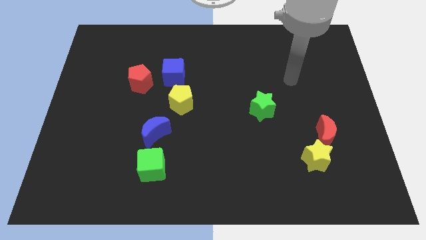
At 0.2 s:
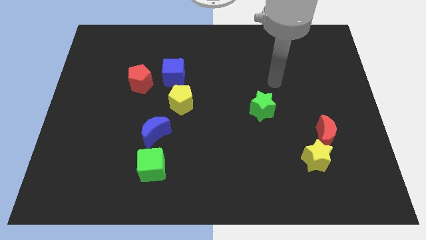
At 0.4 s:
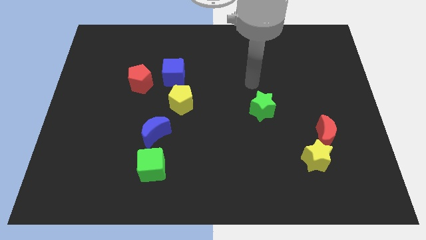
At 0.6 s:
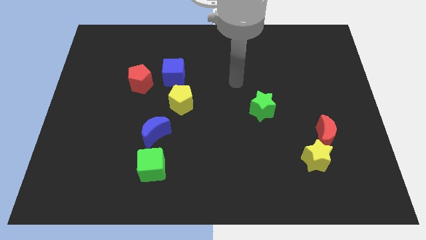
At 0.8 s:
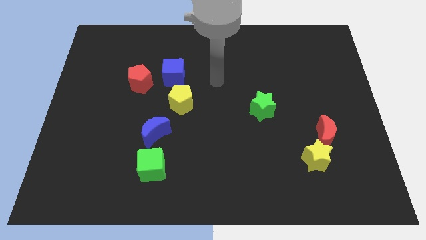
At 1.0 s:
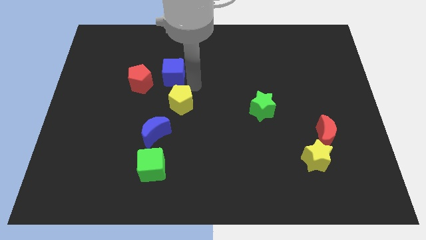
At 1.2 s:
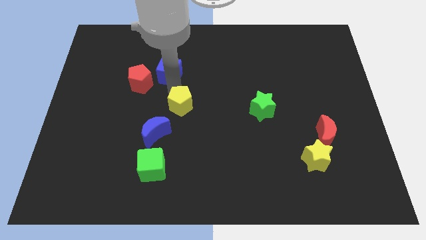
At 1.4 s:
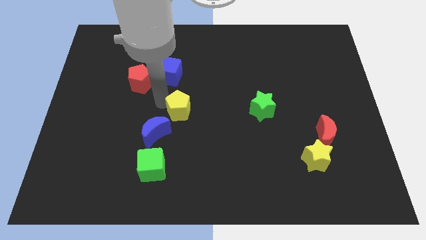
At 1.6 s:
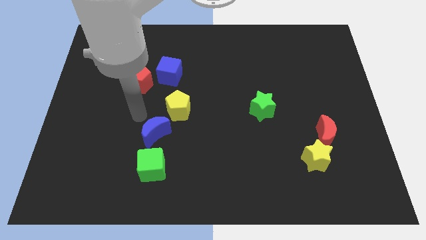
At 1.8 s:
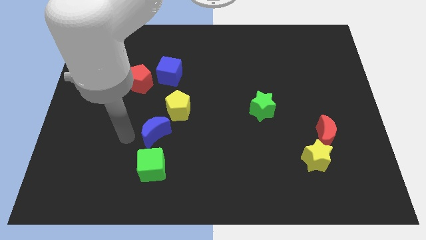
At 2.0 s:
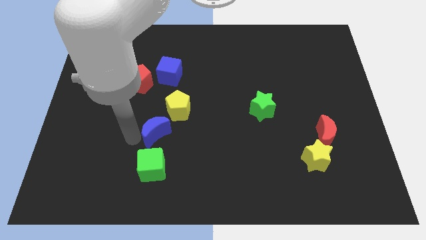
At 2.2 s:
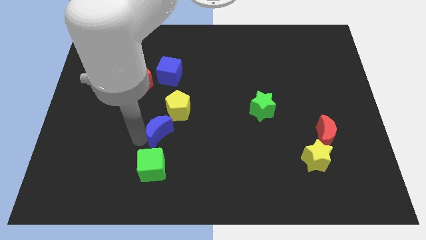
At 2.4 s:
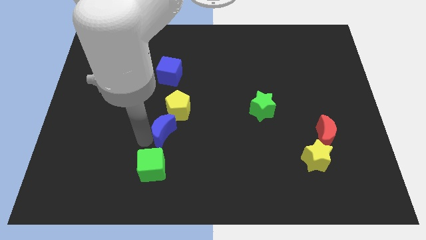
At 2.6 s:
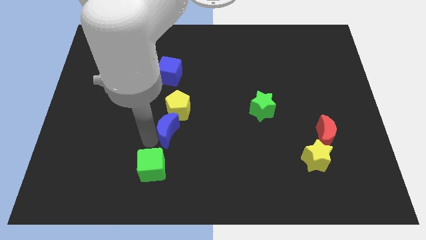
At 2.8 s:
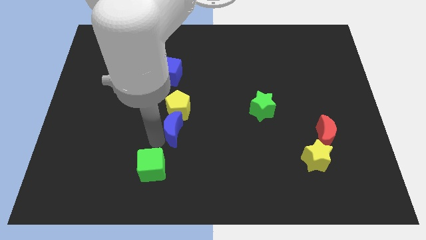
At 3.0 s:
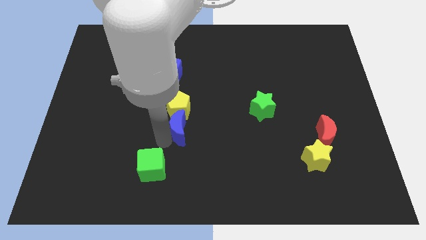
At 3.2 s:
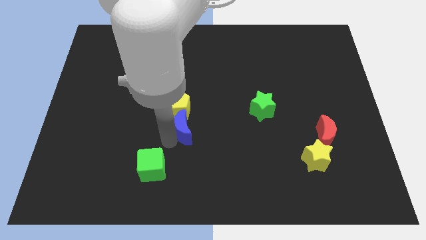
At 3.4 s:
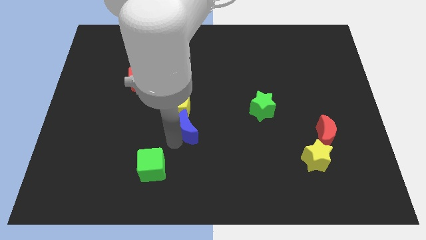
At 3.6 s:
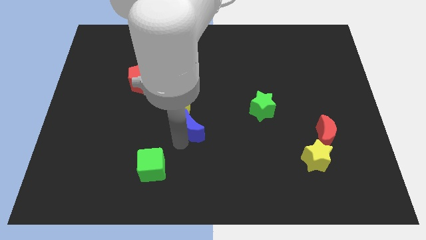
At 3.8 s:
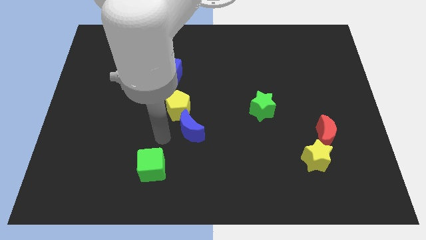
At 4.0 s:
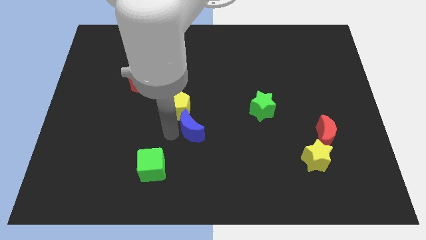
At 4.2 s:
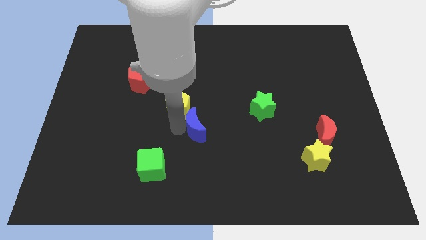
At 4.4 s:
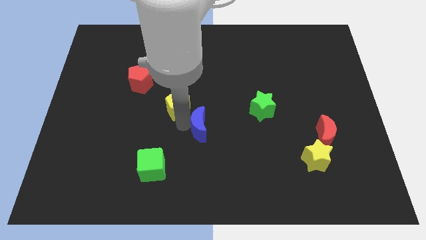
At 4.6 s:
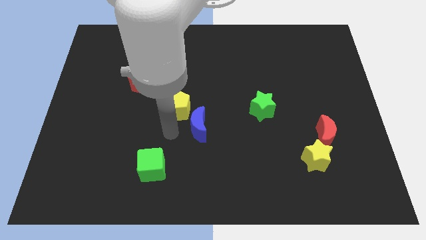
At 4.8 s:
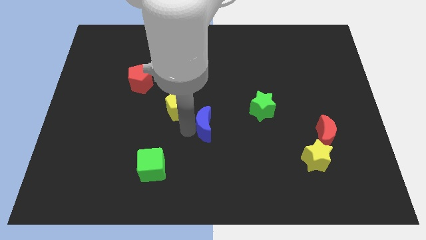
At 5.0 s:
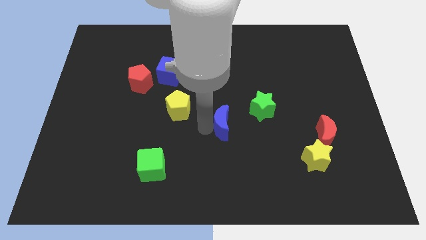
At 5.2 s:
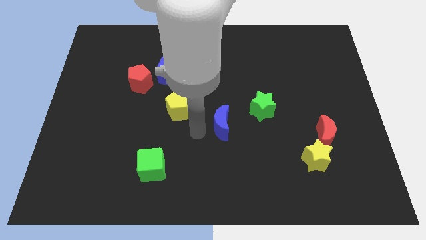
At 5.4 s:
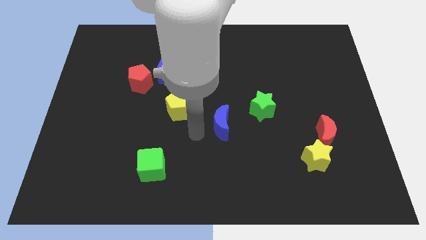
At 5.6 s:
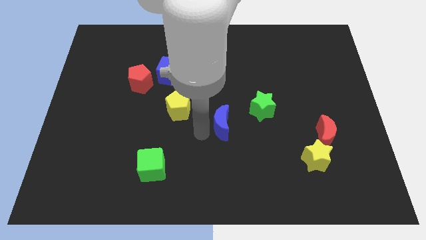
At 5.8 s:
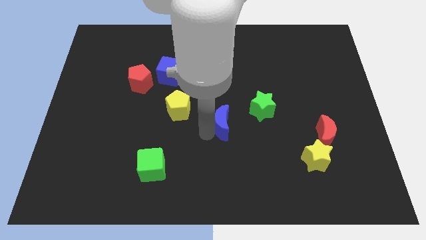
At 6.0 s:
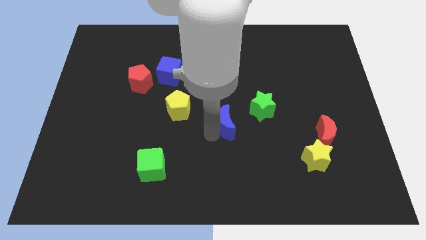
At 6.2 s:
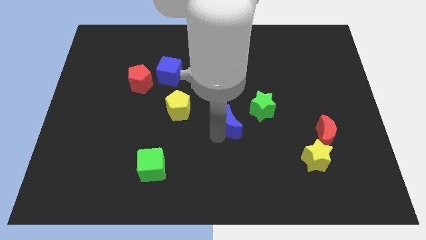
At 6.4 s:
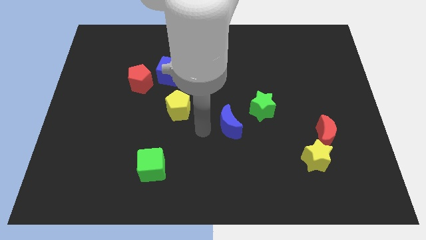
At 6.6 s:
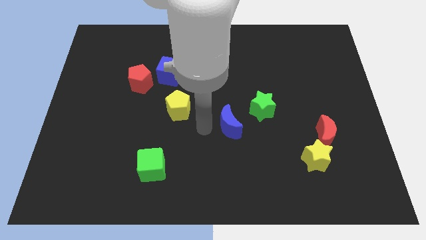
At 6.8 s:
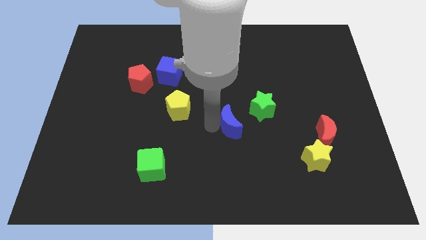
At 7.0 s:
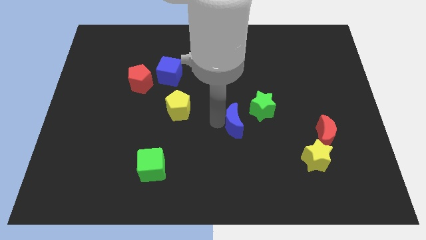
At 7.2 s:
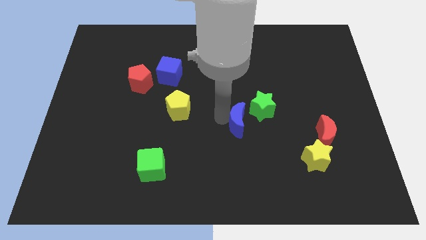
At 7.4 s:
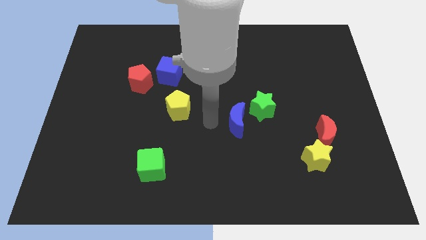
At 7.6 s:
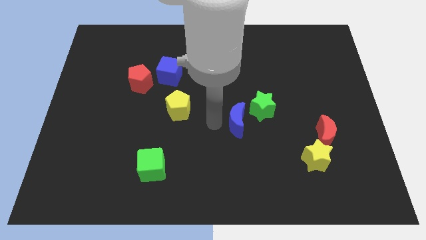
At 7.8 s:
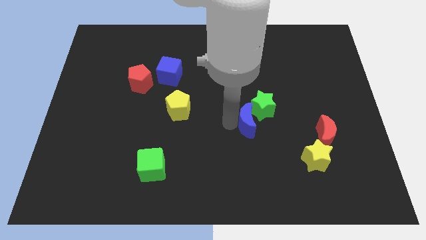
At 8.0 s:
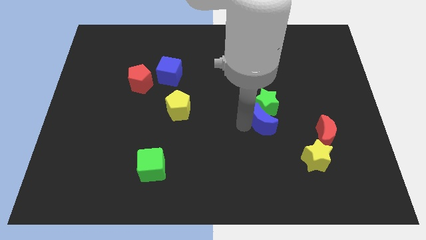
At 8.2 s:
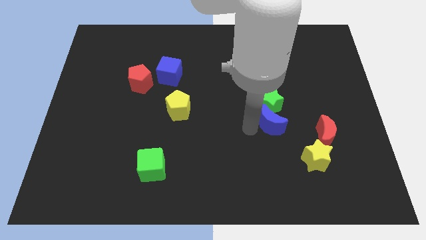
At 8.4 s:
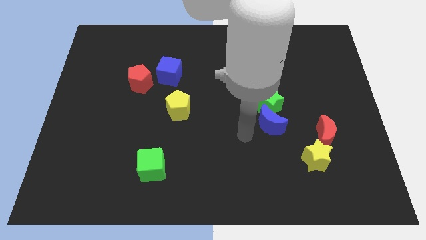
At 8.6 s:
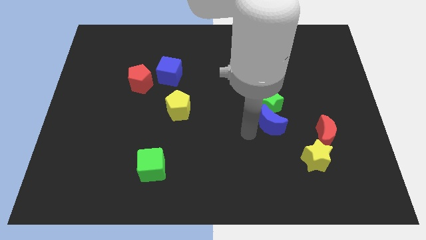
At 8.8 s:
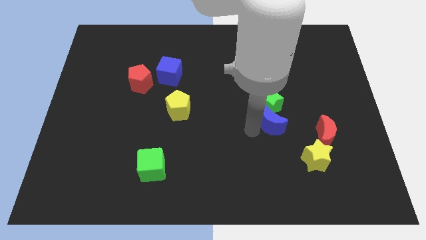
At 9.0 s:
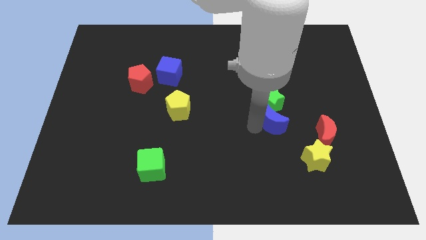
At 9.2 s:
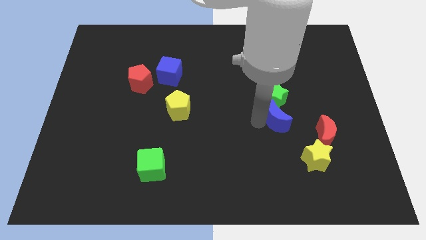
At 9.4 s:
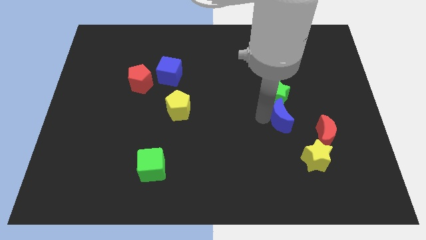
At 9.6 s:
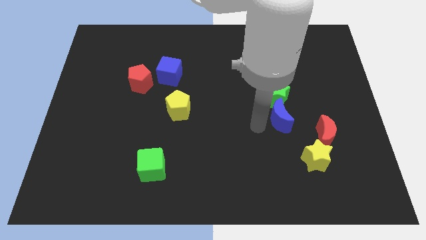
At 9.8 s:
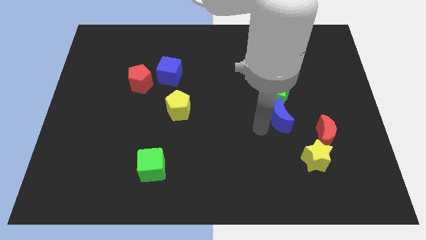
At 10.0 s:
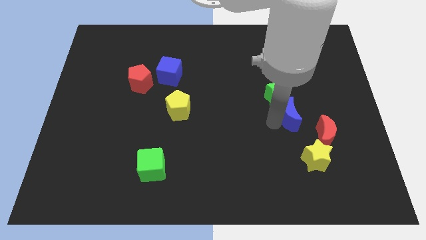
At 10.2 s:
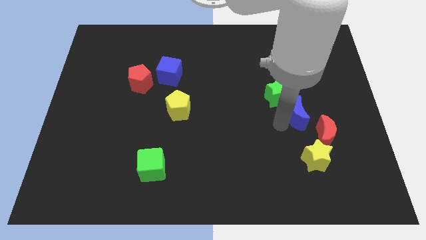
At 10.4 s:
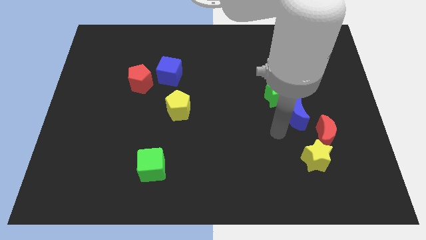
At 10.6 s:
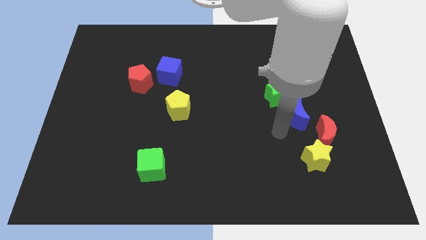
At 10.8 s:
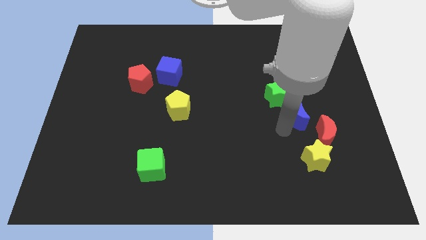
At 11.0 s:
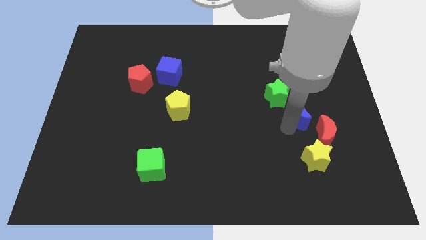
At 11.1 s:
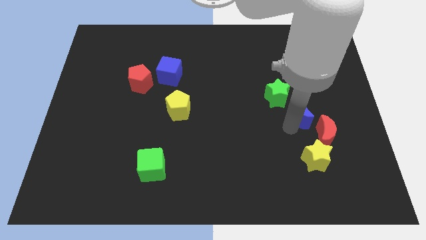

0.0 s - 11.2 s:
push the blue moon above the red moon

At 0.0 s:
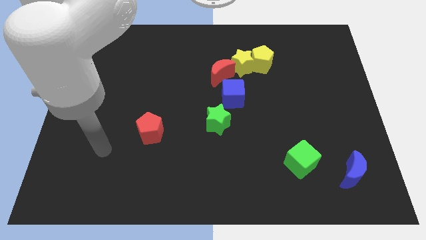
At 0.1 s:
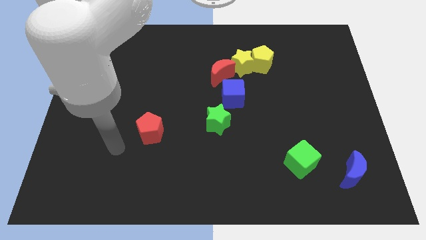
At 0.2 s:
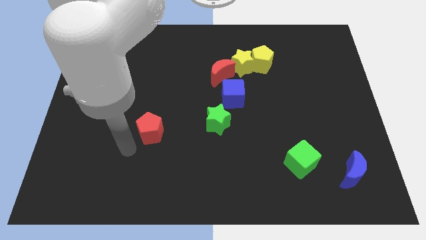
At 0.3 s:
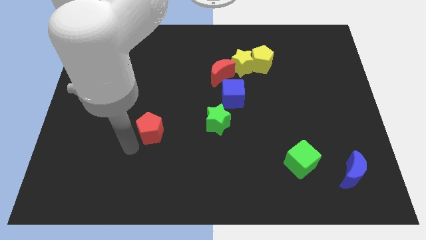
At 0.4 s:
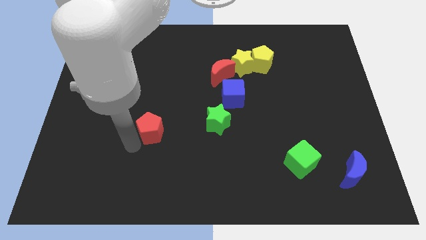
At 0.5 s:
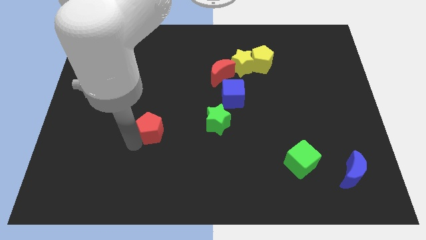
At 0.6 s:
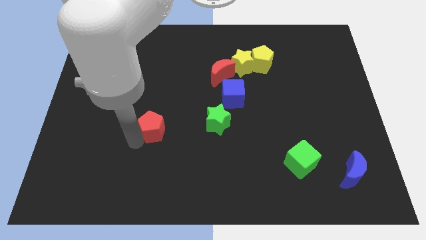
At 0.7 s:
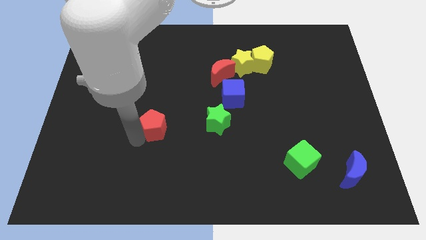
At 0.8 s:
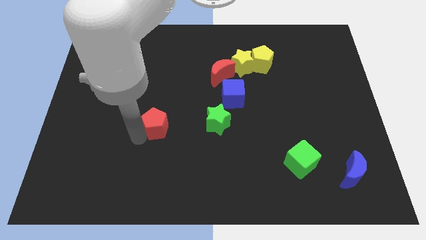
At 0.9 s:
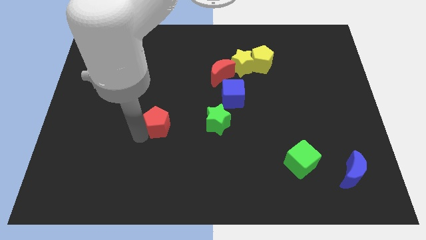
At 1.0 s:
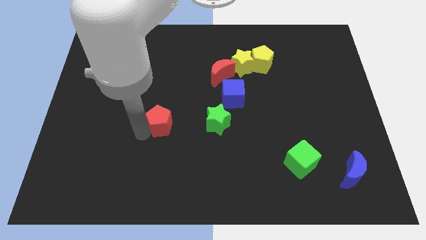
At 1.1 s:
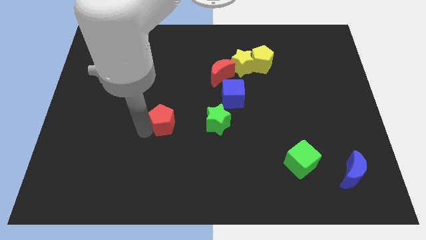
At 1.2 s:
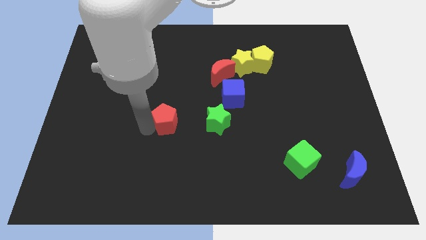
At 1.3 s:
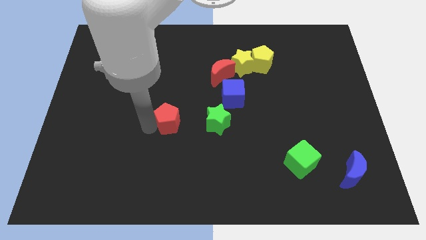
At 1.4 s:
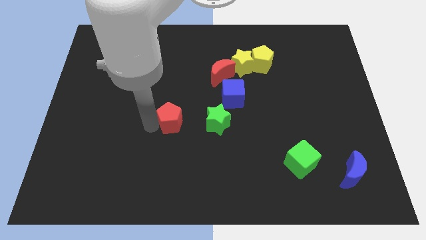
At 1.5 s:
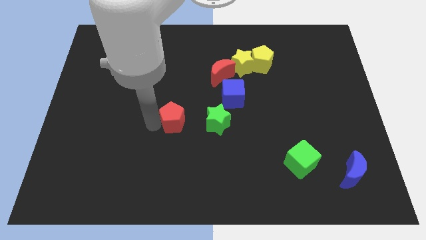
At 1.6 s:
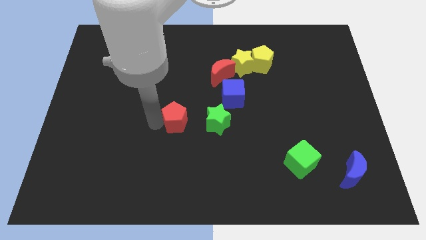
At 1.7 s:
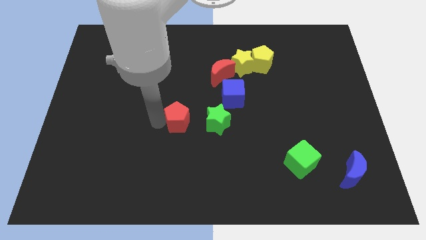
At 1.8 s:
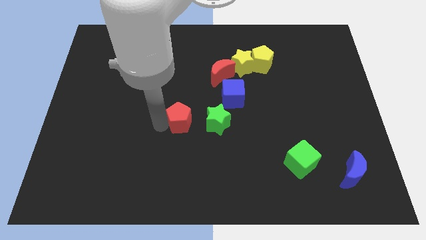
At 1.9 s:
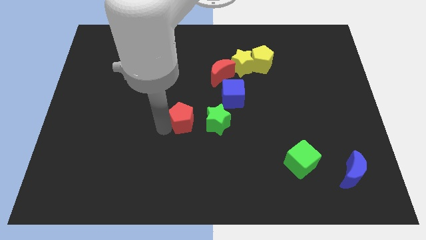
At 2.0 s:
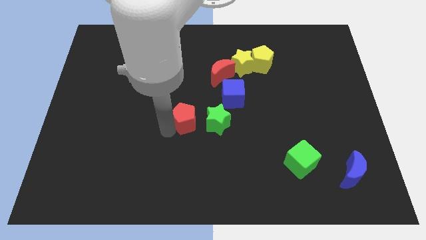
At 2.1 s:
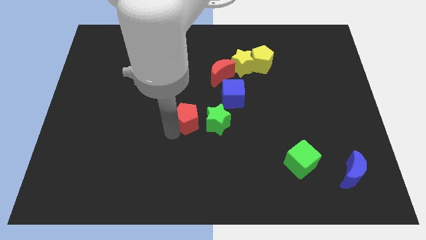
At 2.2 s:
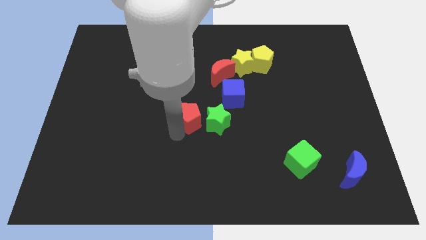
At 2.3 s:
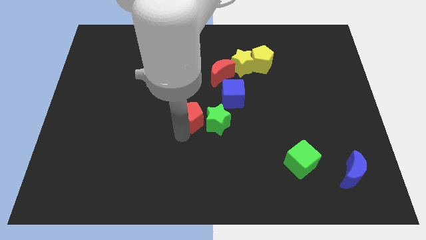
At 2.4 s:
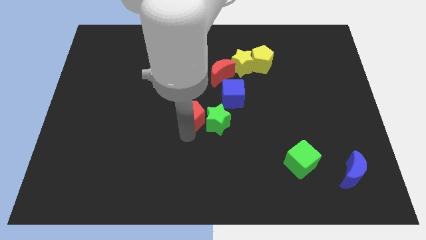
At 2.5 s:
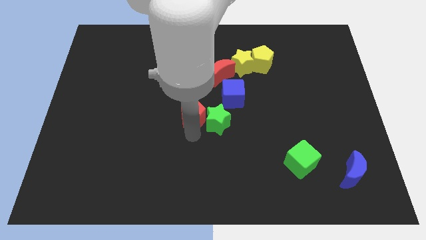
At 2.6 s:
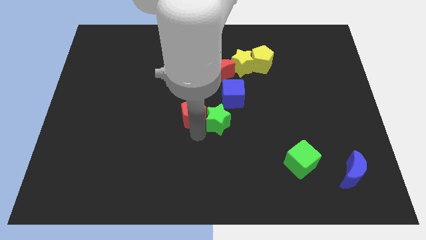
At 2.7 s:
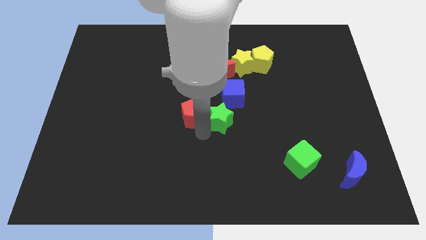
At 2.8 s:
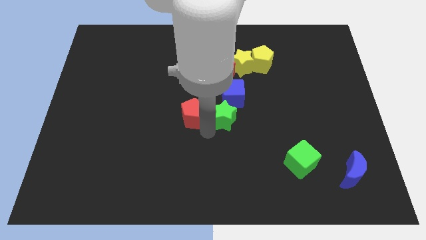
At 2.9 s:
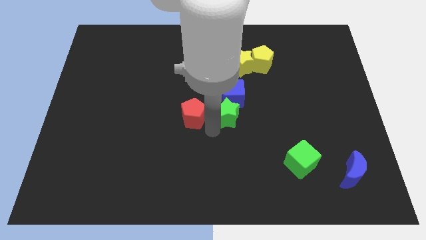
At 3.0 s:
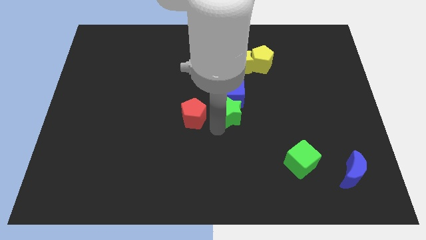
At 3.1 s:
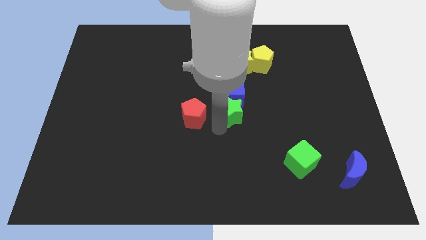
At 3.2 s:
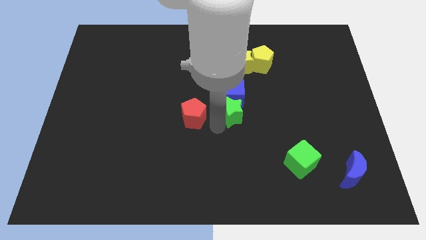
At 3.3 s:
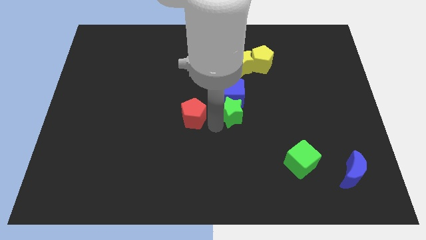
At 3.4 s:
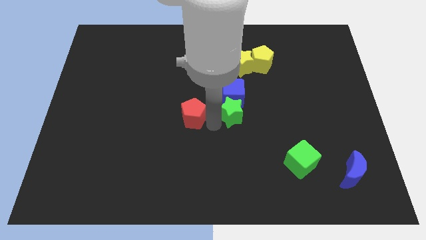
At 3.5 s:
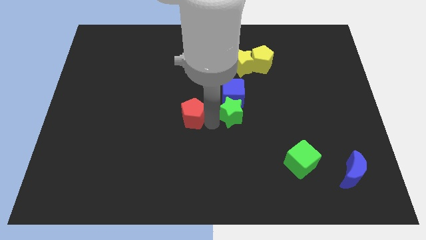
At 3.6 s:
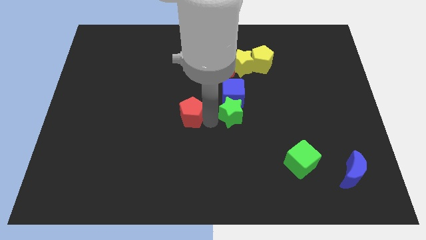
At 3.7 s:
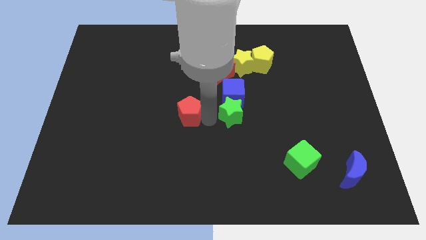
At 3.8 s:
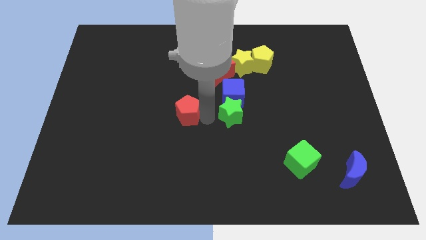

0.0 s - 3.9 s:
push the red pentagon just left of the blue cube
